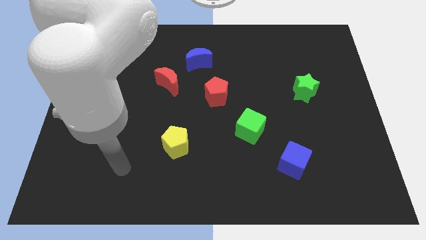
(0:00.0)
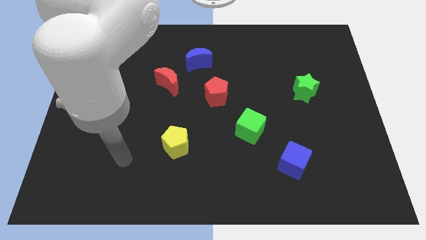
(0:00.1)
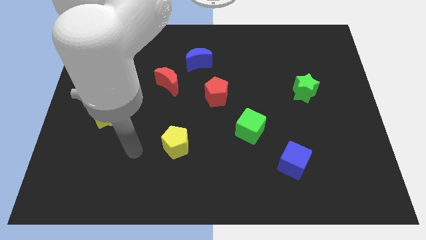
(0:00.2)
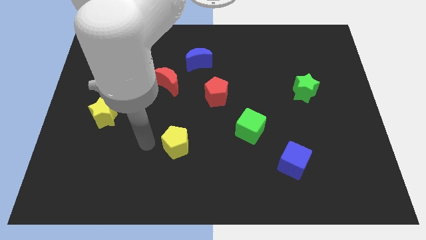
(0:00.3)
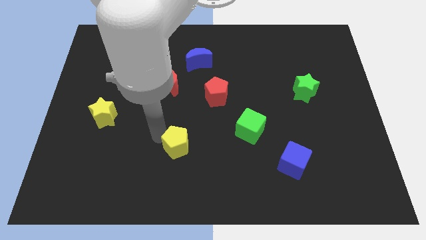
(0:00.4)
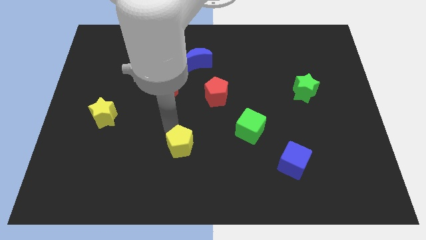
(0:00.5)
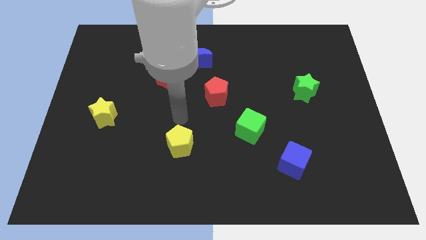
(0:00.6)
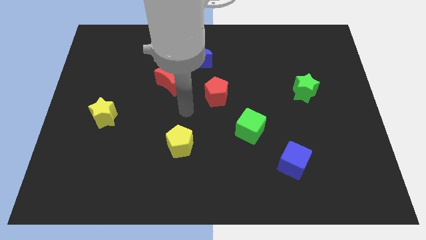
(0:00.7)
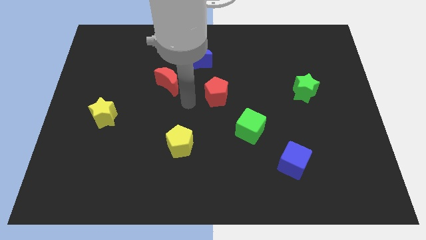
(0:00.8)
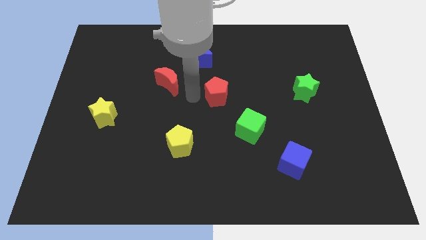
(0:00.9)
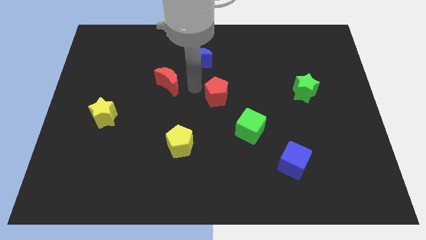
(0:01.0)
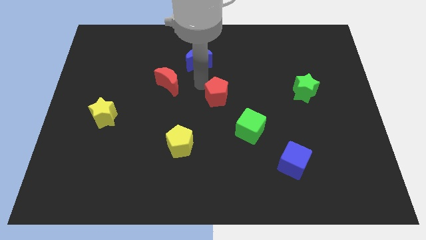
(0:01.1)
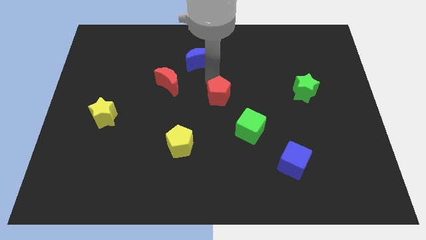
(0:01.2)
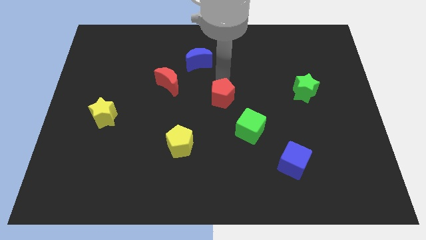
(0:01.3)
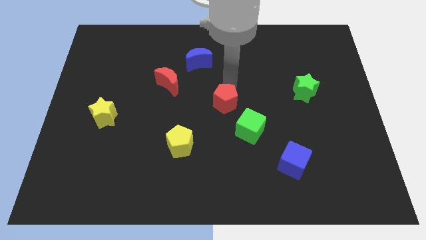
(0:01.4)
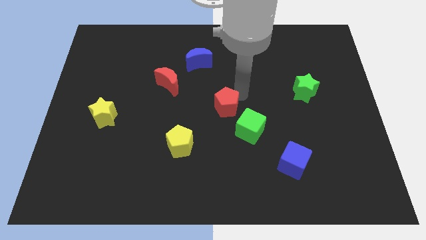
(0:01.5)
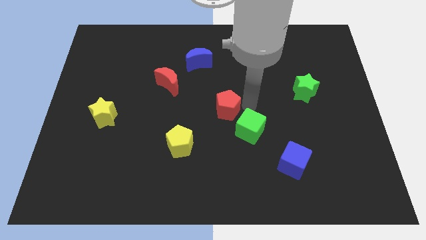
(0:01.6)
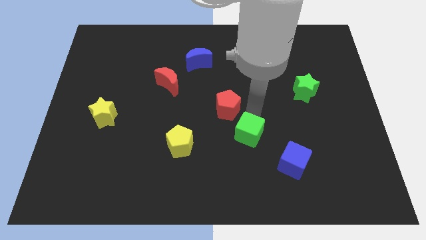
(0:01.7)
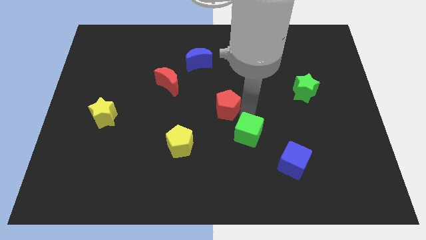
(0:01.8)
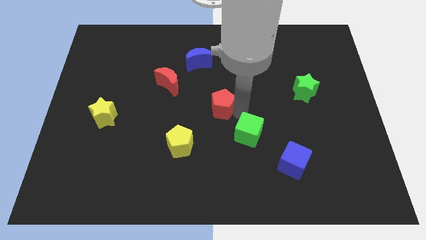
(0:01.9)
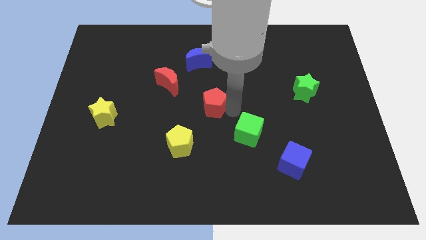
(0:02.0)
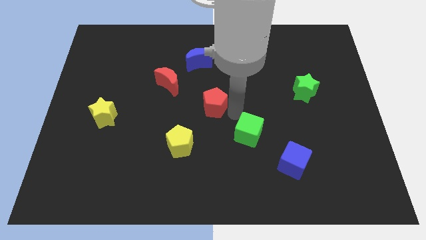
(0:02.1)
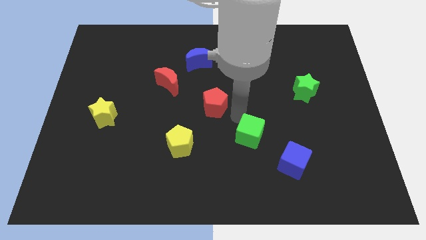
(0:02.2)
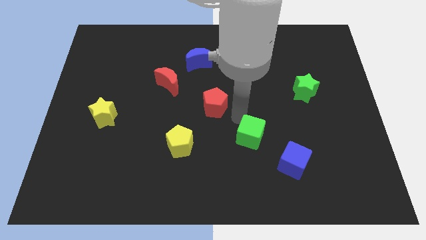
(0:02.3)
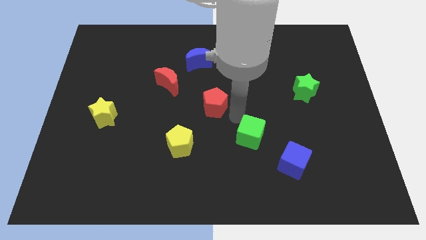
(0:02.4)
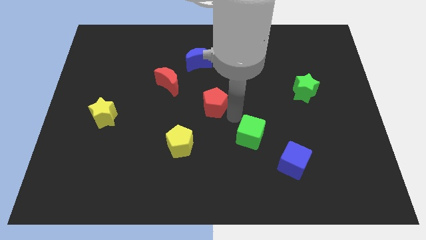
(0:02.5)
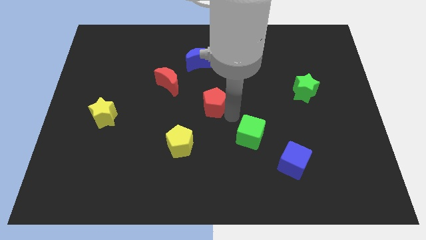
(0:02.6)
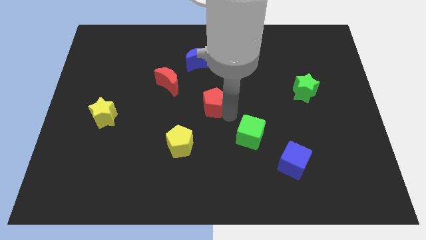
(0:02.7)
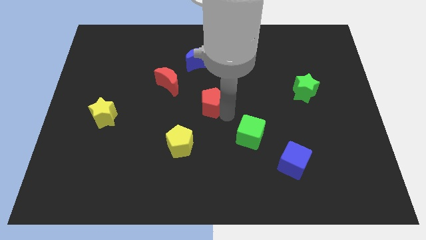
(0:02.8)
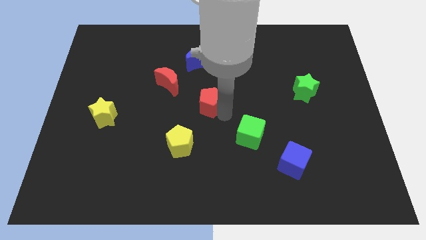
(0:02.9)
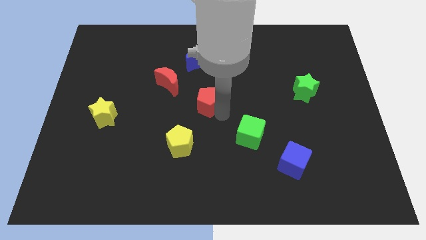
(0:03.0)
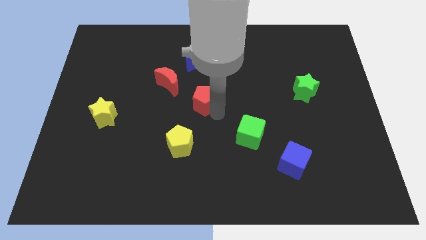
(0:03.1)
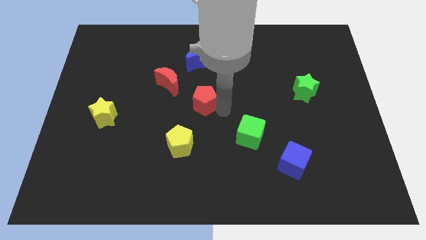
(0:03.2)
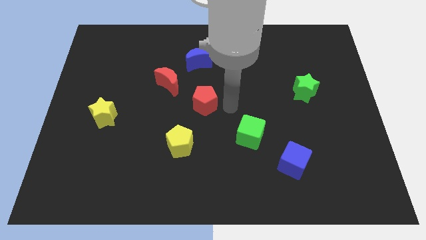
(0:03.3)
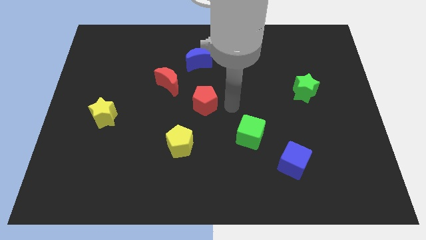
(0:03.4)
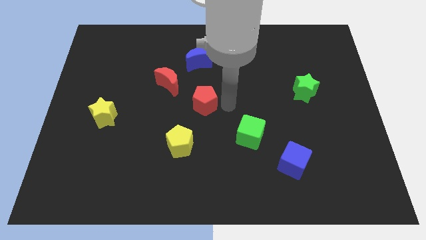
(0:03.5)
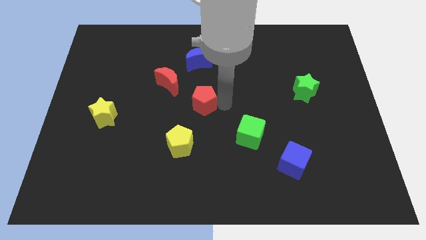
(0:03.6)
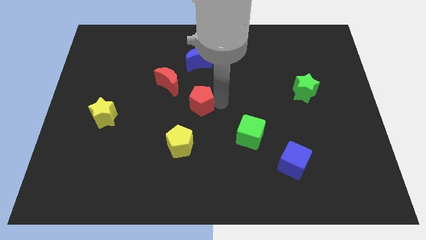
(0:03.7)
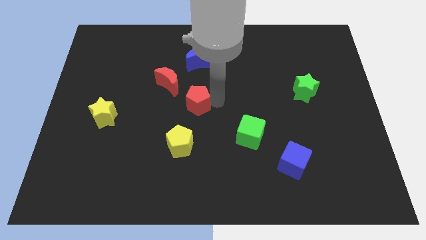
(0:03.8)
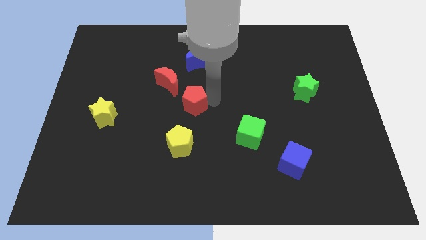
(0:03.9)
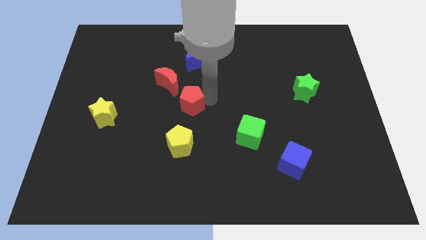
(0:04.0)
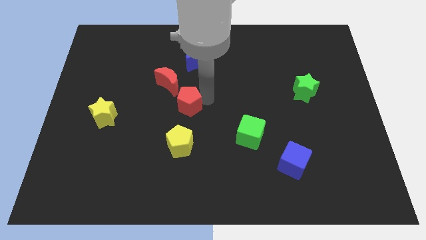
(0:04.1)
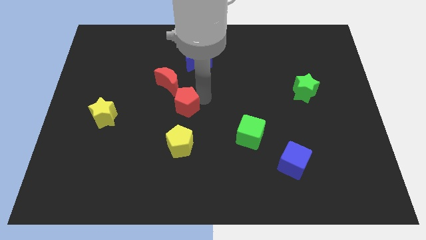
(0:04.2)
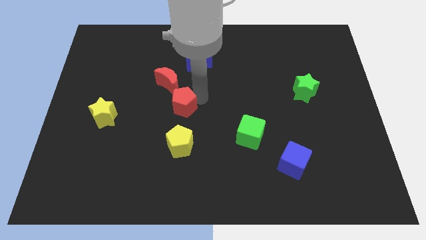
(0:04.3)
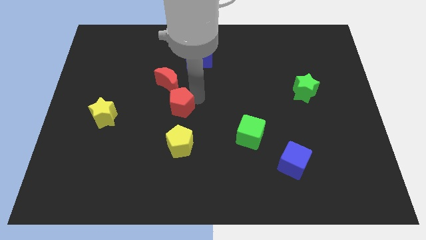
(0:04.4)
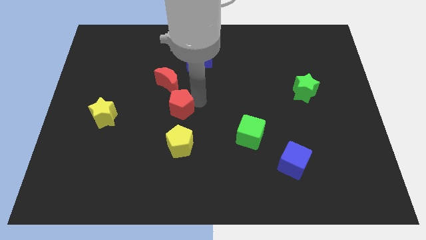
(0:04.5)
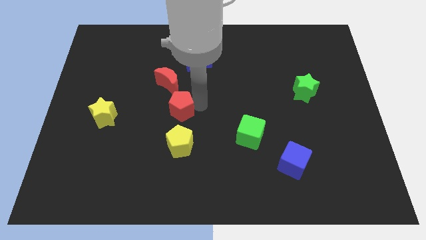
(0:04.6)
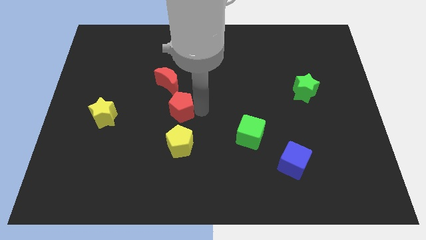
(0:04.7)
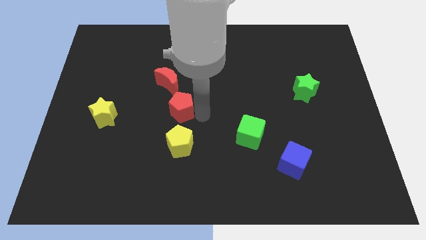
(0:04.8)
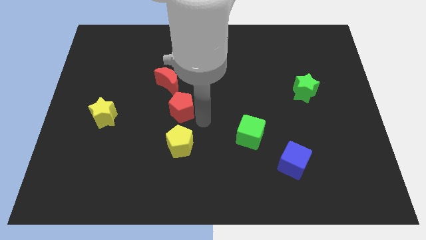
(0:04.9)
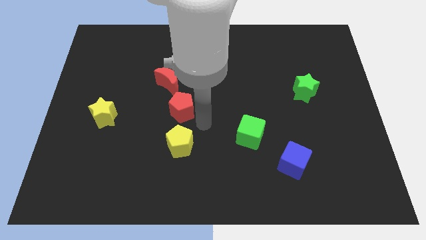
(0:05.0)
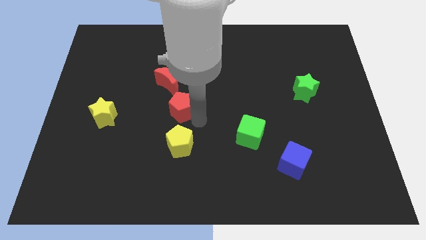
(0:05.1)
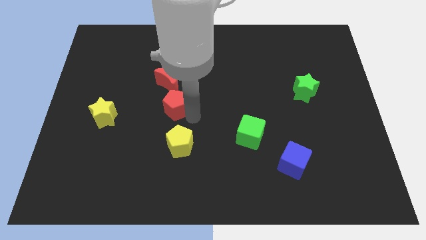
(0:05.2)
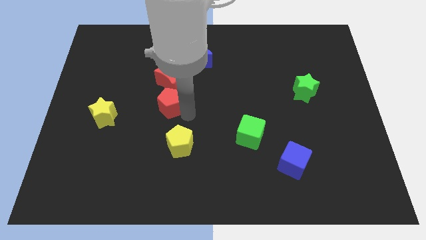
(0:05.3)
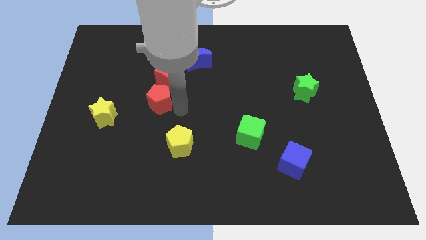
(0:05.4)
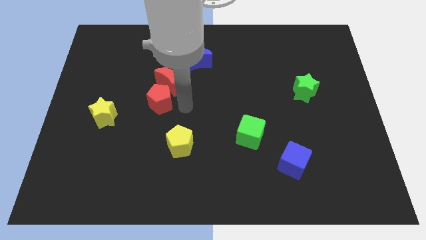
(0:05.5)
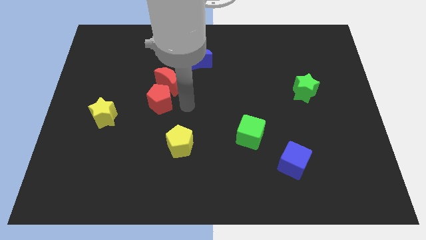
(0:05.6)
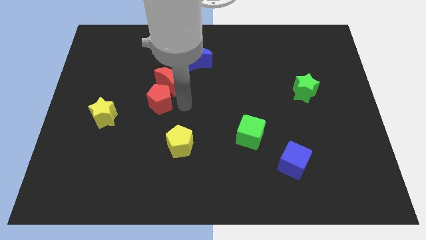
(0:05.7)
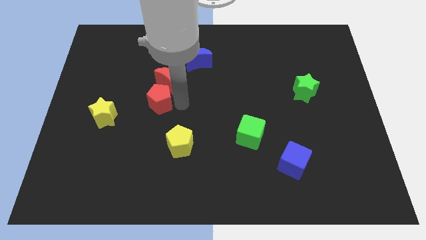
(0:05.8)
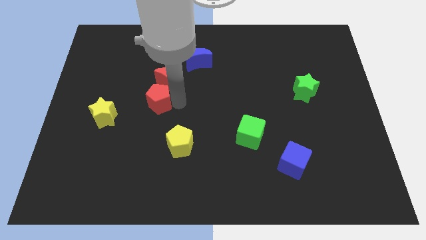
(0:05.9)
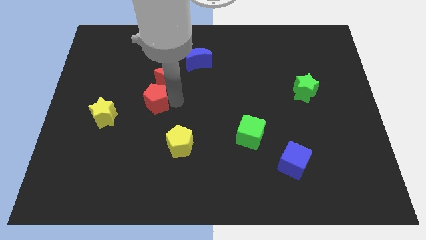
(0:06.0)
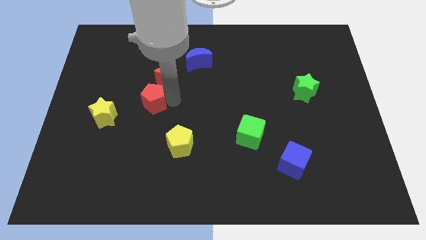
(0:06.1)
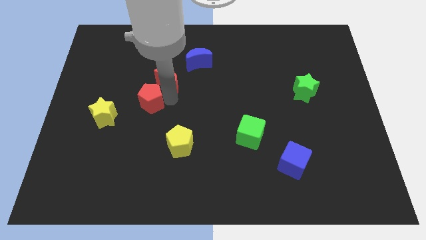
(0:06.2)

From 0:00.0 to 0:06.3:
move the red pentagon diagonally up and to the right of the yellow star

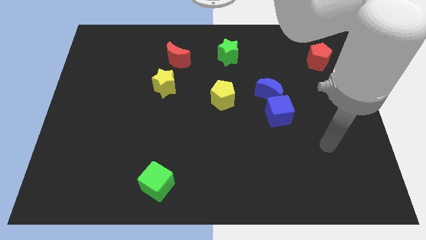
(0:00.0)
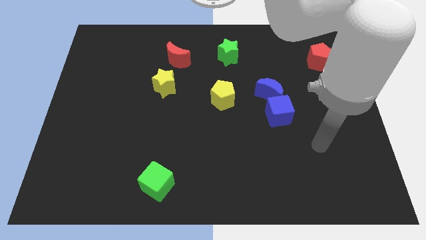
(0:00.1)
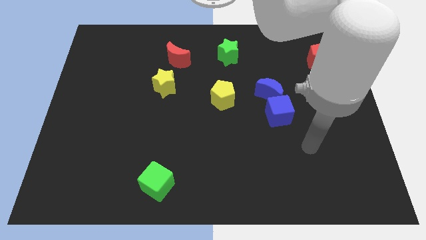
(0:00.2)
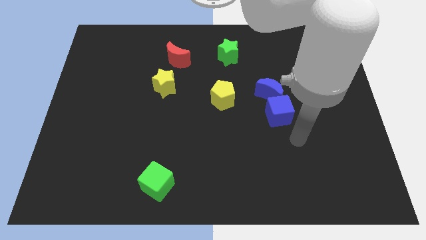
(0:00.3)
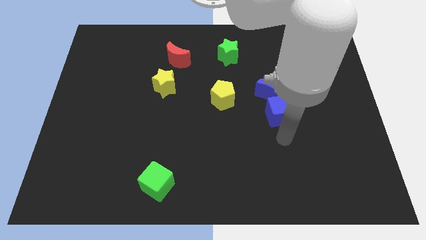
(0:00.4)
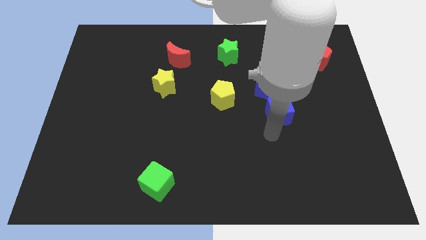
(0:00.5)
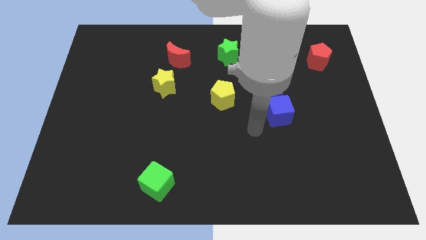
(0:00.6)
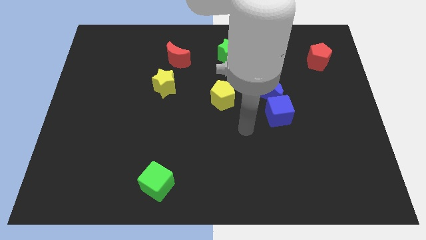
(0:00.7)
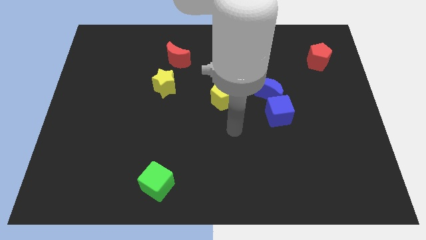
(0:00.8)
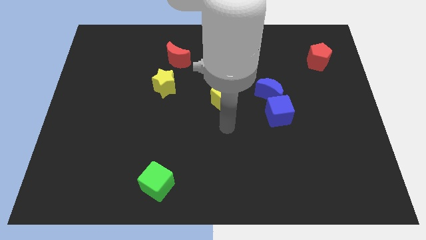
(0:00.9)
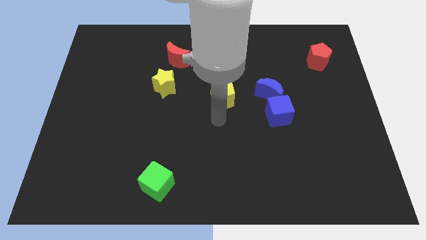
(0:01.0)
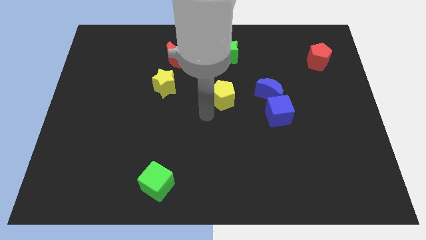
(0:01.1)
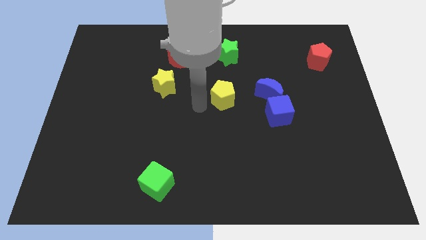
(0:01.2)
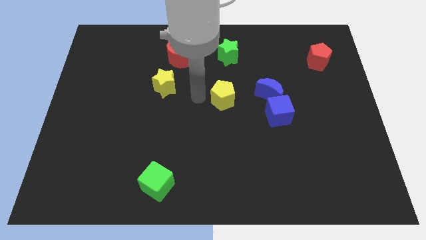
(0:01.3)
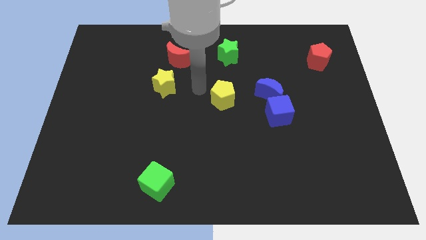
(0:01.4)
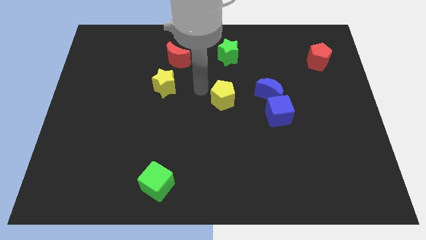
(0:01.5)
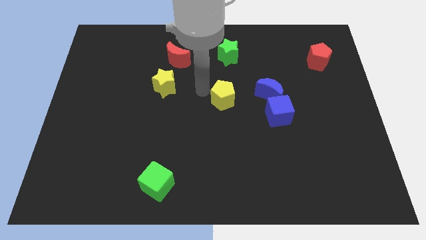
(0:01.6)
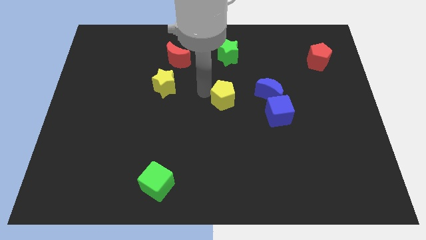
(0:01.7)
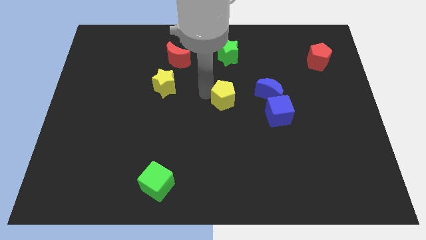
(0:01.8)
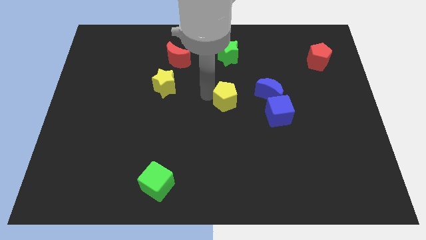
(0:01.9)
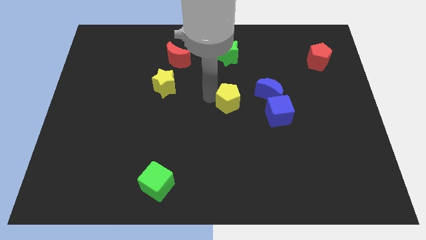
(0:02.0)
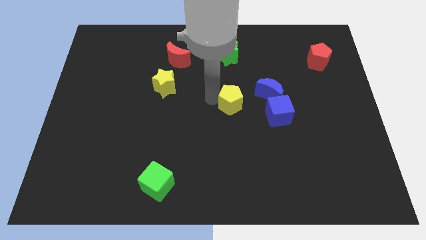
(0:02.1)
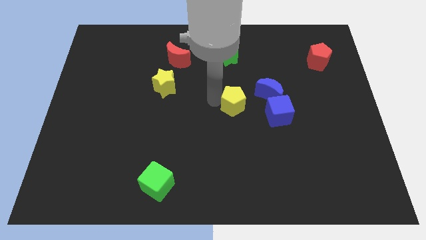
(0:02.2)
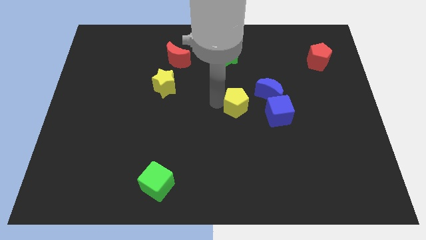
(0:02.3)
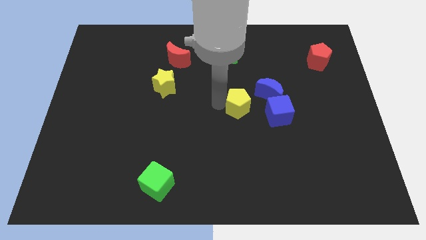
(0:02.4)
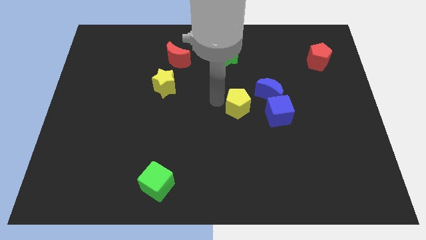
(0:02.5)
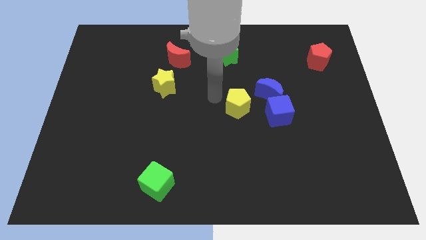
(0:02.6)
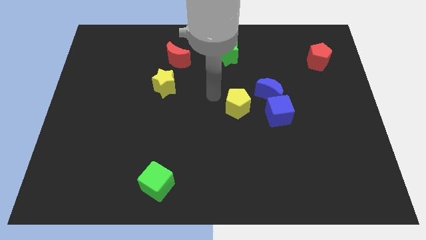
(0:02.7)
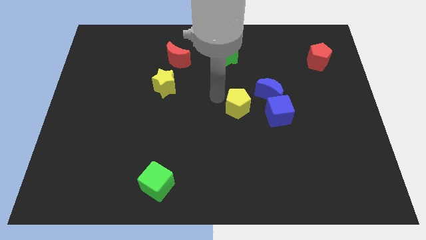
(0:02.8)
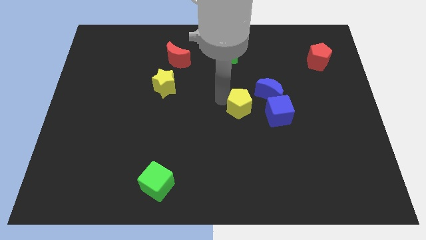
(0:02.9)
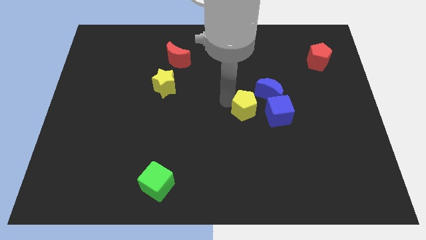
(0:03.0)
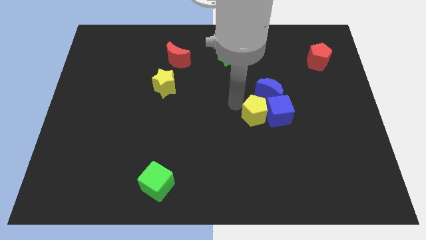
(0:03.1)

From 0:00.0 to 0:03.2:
put the yellow pentagon to the bottom side of the blue moon
